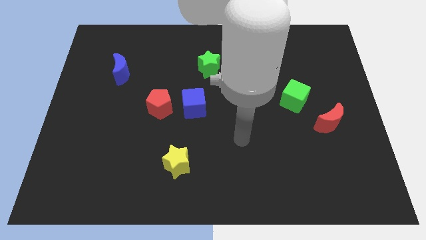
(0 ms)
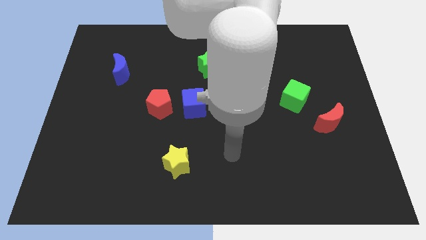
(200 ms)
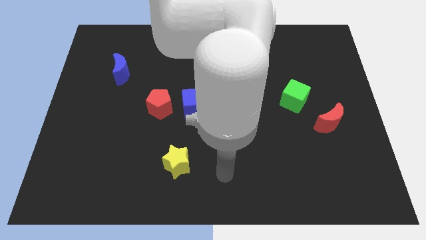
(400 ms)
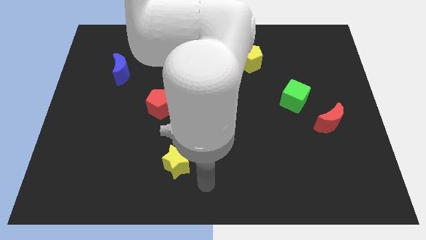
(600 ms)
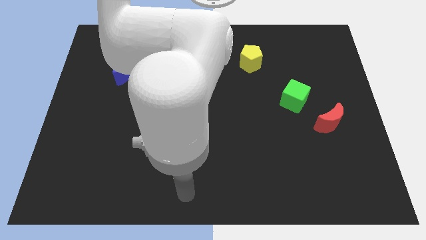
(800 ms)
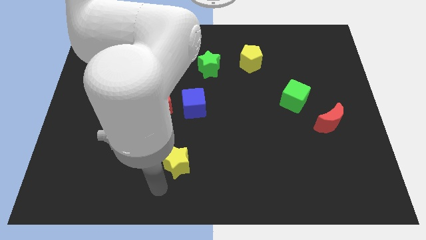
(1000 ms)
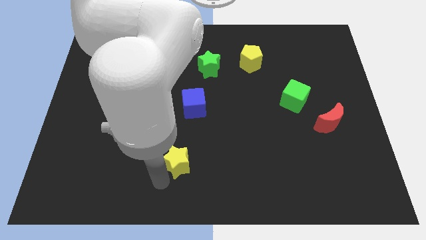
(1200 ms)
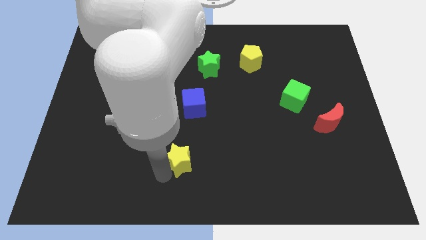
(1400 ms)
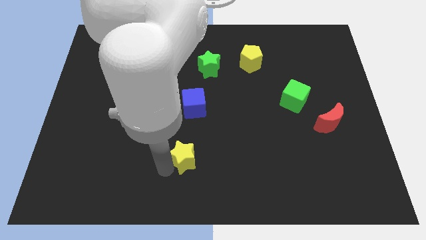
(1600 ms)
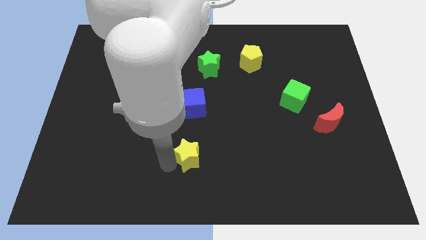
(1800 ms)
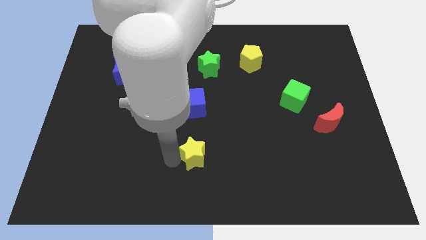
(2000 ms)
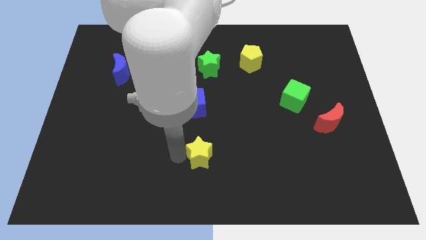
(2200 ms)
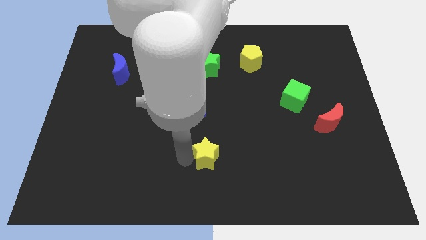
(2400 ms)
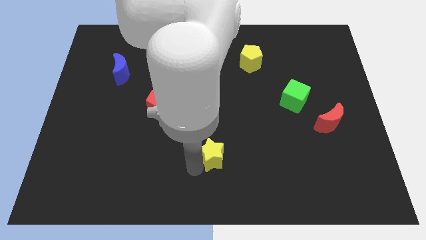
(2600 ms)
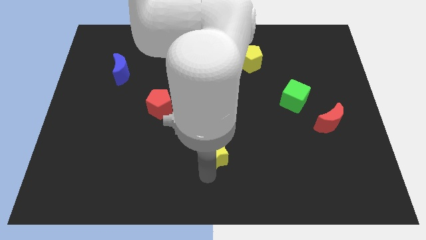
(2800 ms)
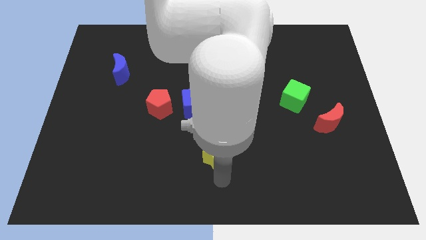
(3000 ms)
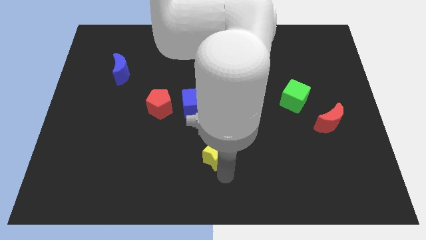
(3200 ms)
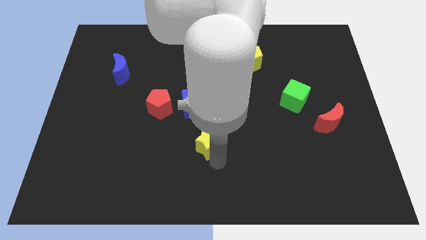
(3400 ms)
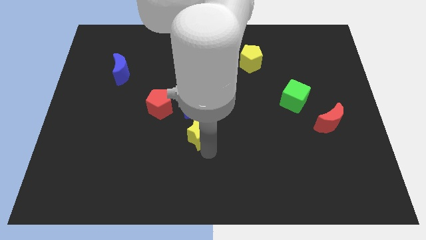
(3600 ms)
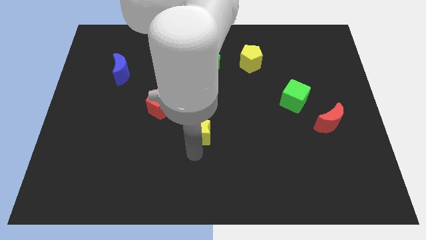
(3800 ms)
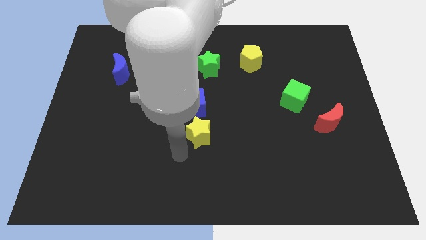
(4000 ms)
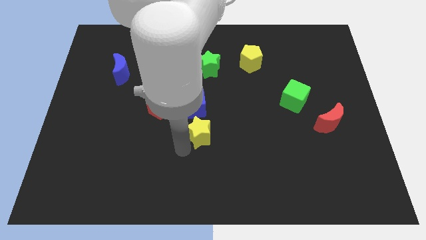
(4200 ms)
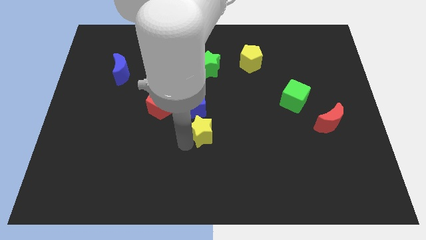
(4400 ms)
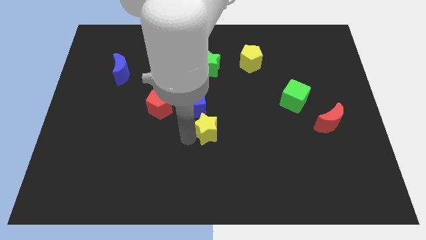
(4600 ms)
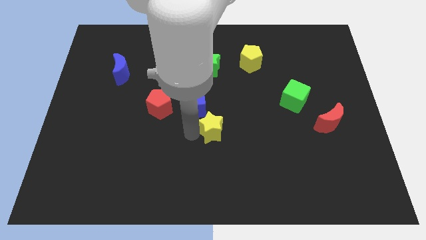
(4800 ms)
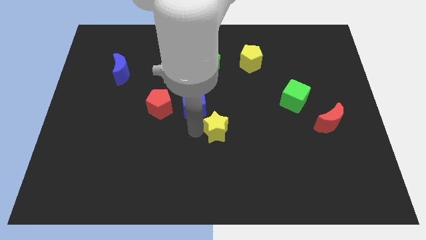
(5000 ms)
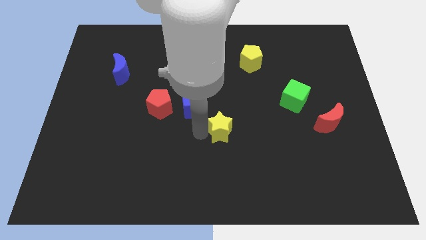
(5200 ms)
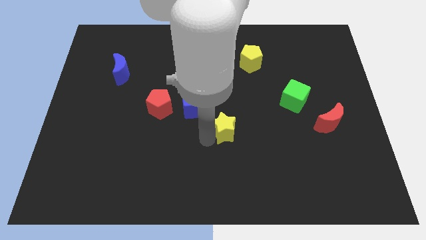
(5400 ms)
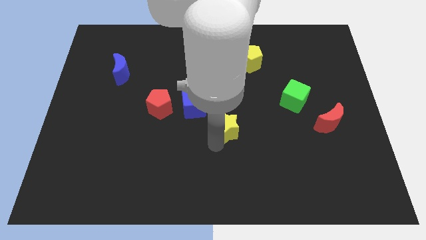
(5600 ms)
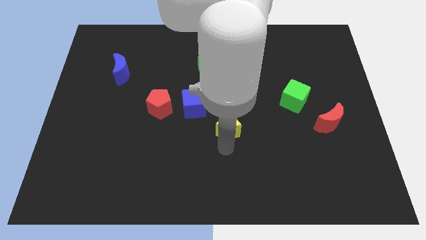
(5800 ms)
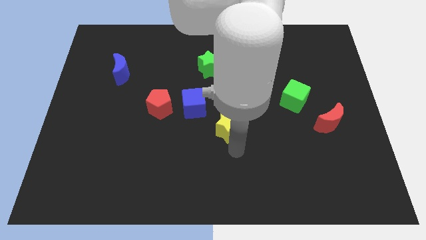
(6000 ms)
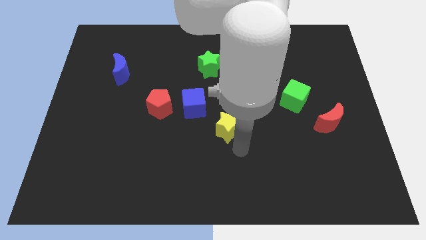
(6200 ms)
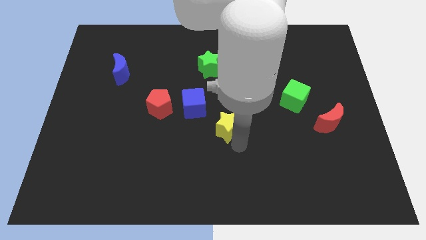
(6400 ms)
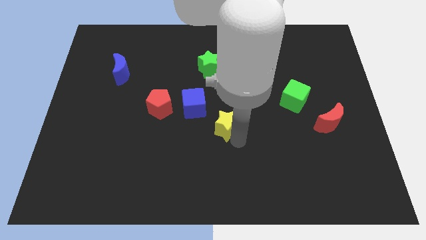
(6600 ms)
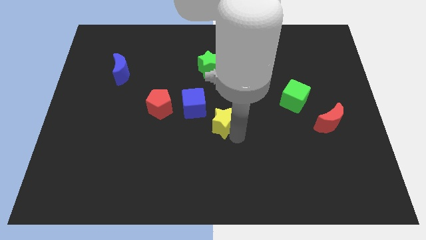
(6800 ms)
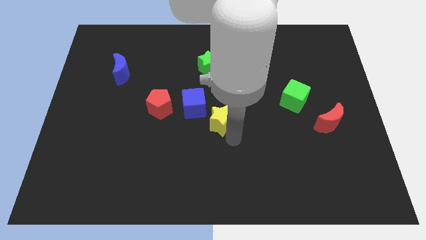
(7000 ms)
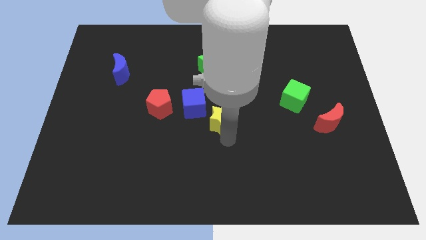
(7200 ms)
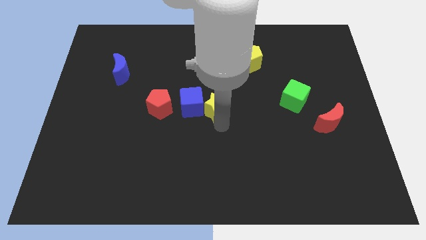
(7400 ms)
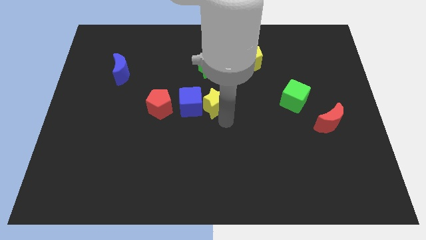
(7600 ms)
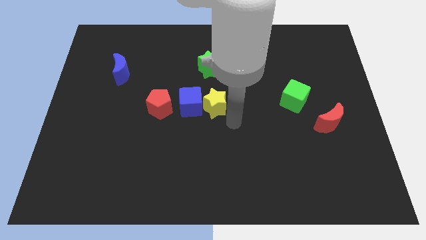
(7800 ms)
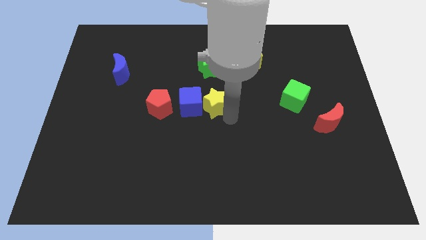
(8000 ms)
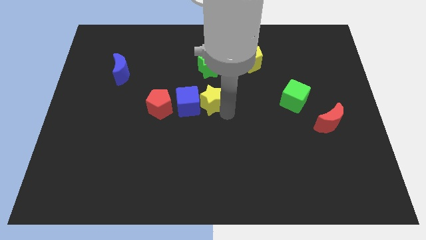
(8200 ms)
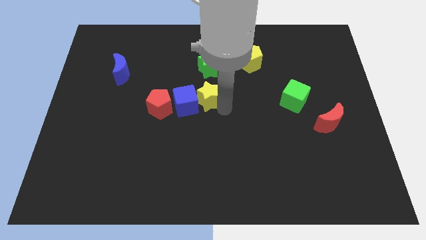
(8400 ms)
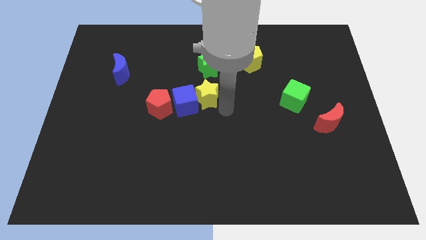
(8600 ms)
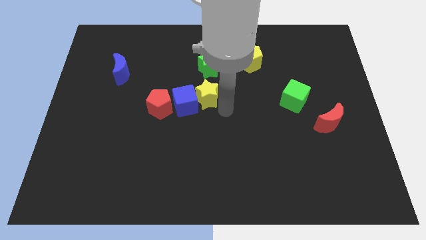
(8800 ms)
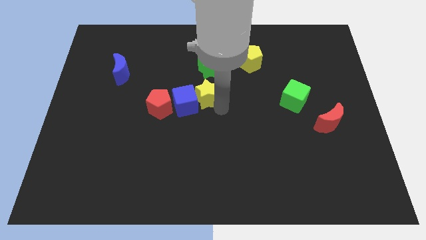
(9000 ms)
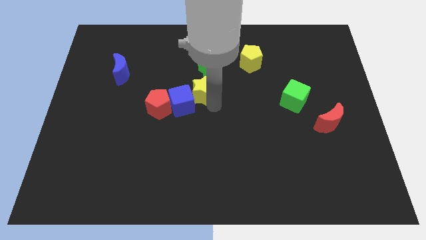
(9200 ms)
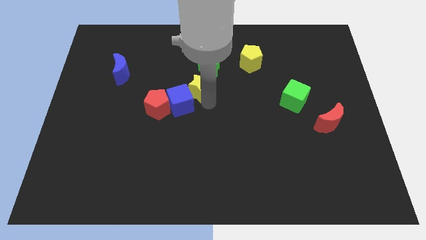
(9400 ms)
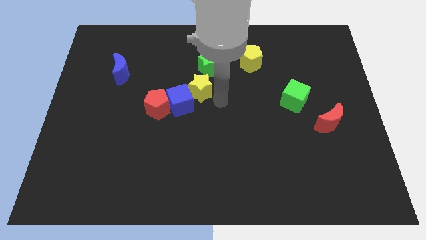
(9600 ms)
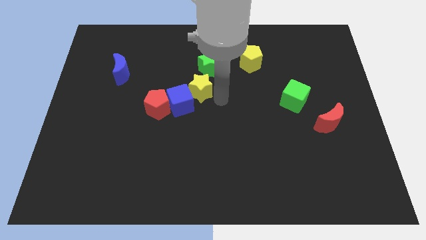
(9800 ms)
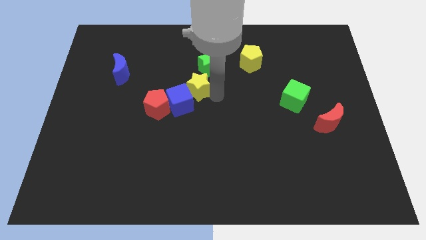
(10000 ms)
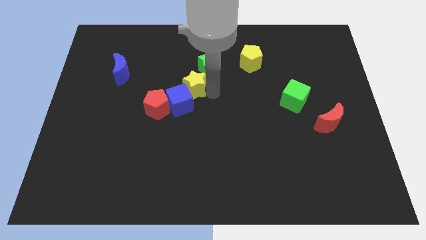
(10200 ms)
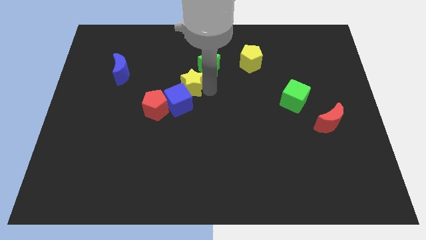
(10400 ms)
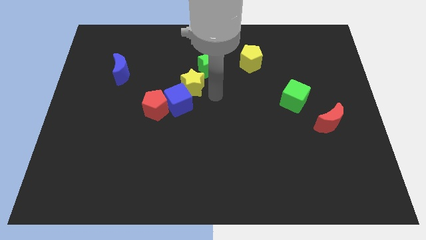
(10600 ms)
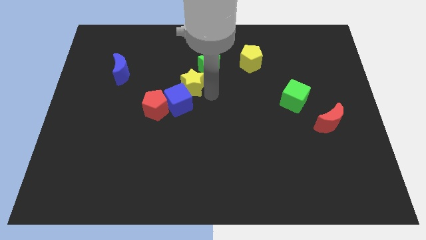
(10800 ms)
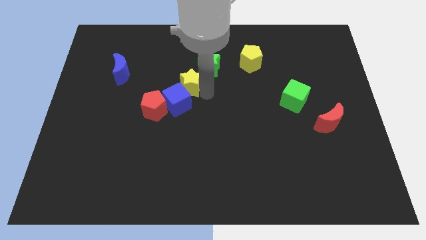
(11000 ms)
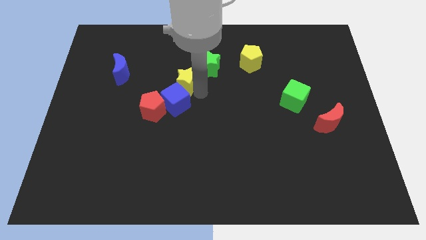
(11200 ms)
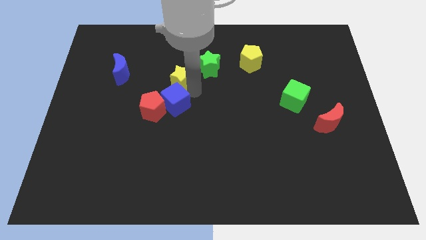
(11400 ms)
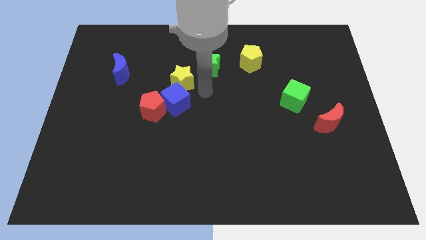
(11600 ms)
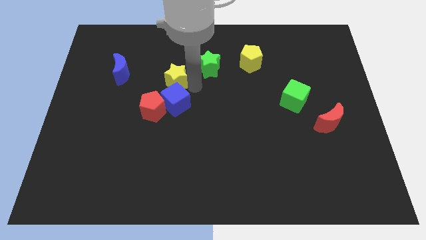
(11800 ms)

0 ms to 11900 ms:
slide the yellow star just right of the blue moon
